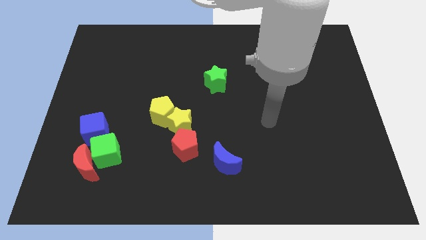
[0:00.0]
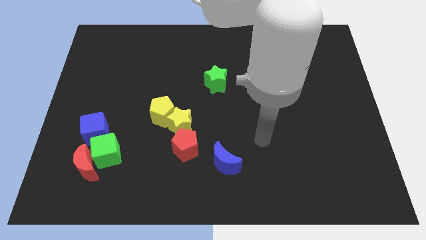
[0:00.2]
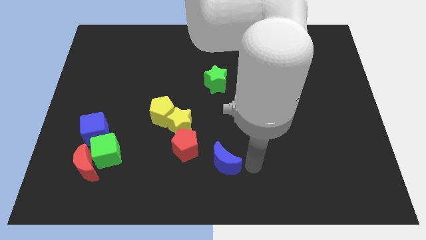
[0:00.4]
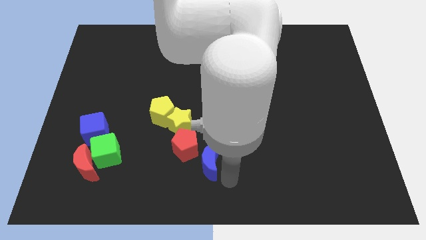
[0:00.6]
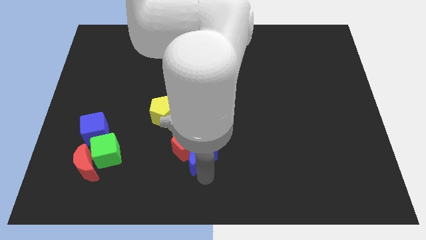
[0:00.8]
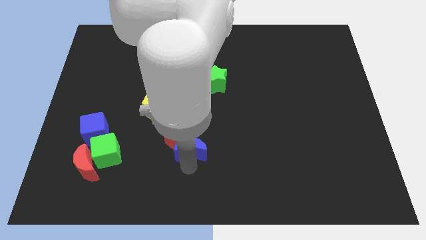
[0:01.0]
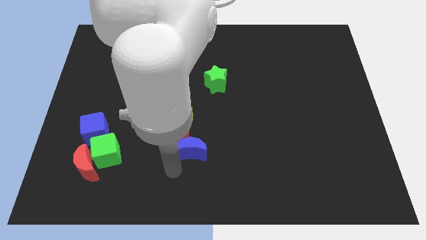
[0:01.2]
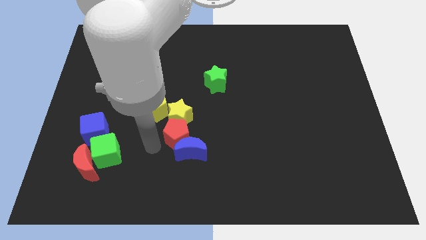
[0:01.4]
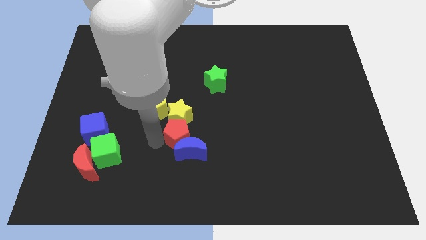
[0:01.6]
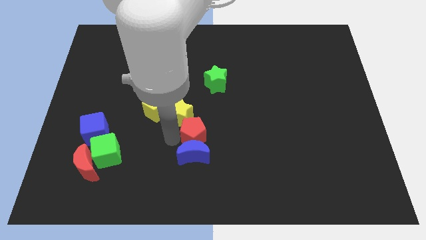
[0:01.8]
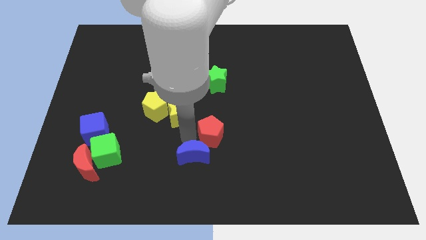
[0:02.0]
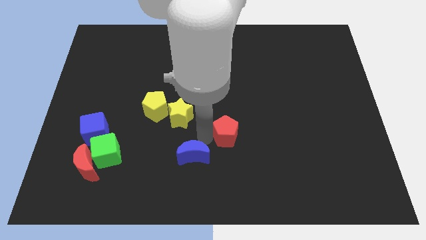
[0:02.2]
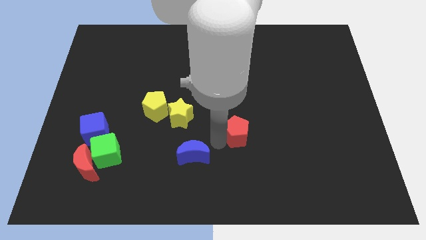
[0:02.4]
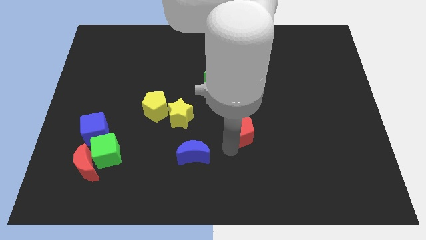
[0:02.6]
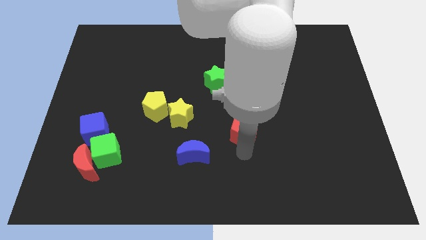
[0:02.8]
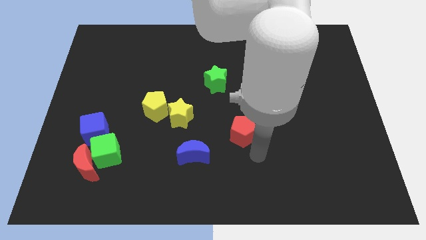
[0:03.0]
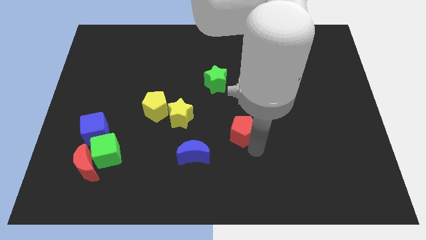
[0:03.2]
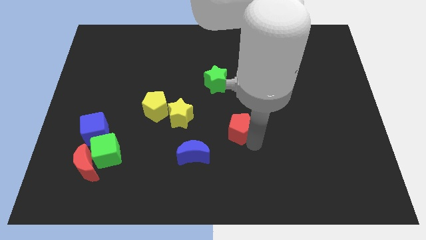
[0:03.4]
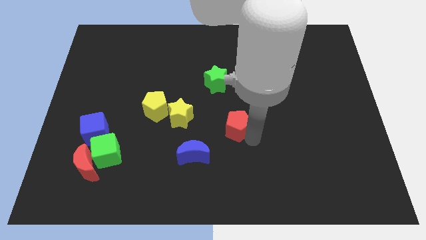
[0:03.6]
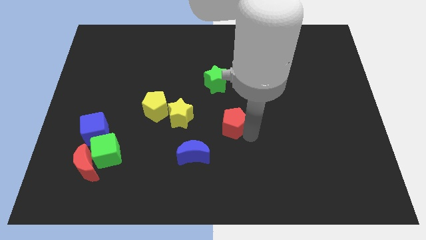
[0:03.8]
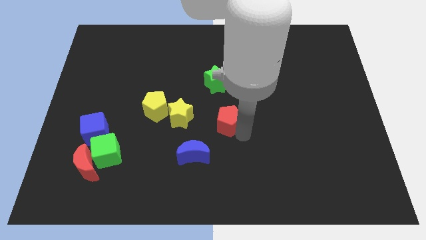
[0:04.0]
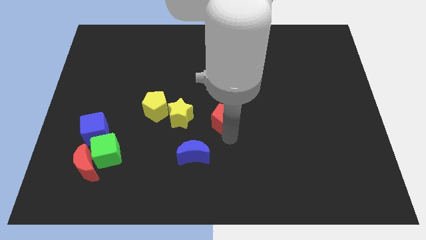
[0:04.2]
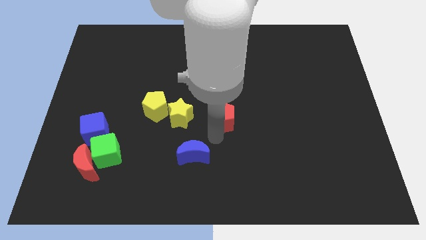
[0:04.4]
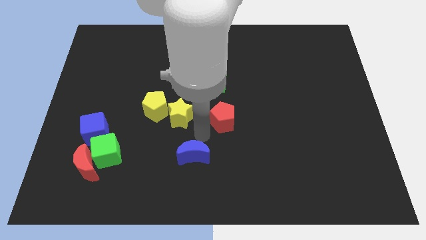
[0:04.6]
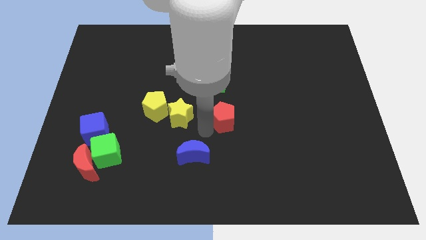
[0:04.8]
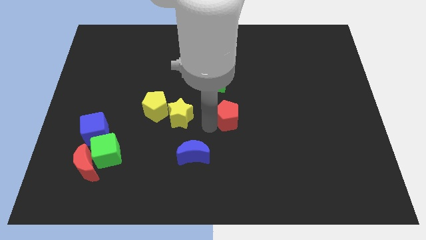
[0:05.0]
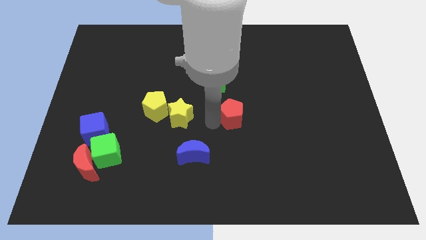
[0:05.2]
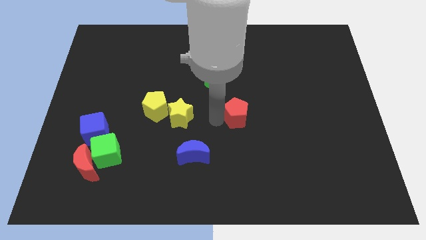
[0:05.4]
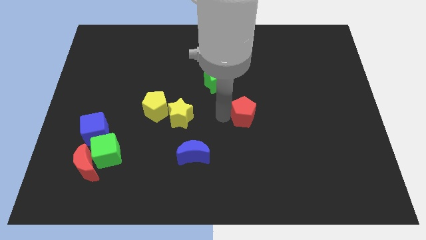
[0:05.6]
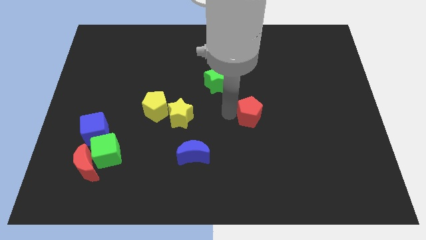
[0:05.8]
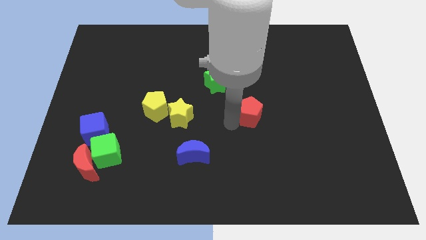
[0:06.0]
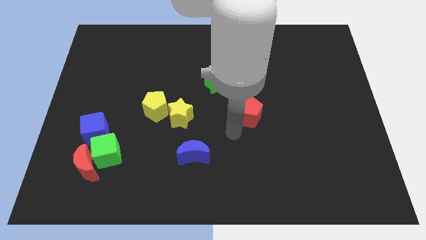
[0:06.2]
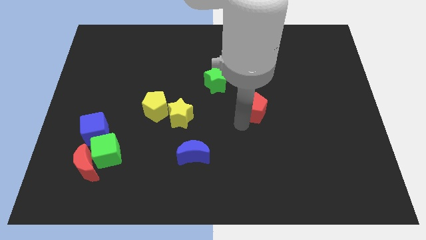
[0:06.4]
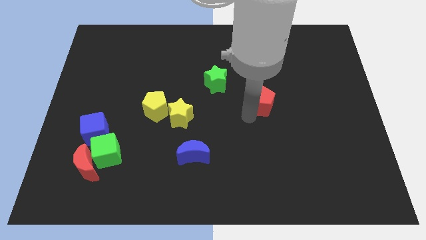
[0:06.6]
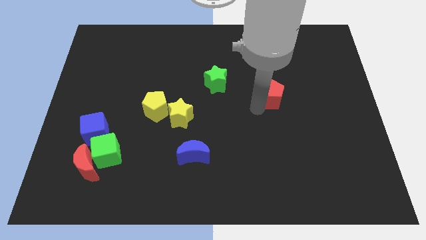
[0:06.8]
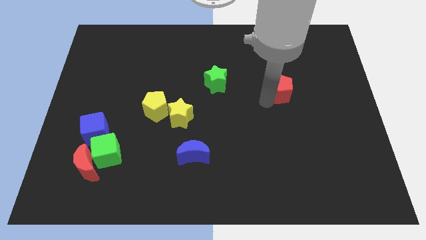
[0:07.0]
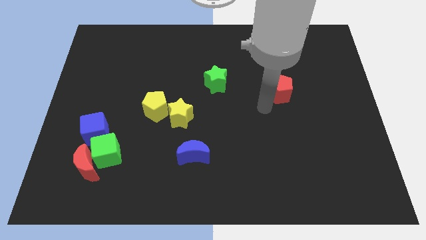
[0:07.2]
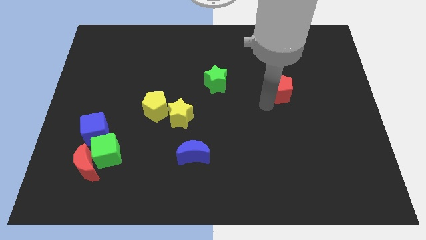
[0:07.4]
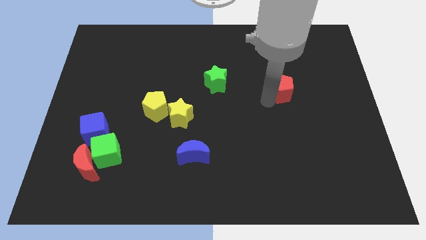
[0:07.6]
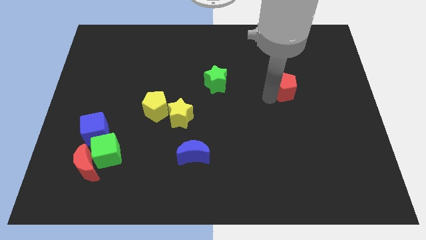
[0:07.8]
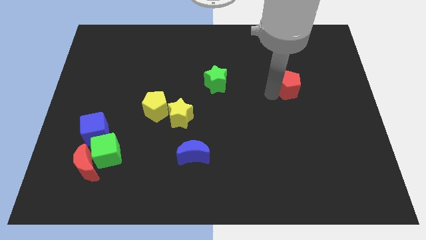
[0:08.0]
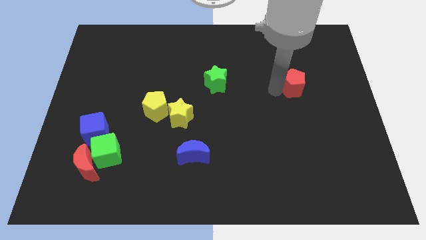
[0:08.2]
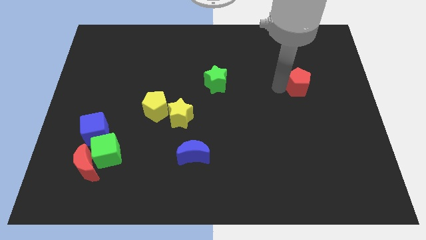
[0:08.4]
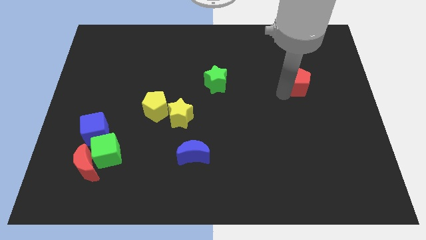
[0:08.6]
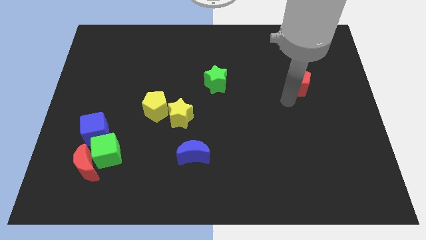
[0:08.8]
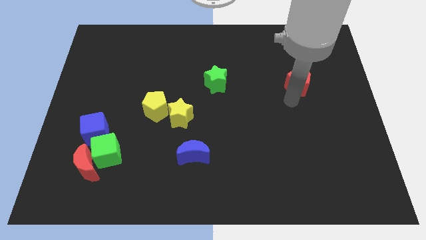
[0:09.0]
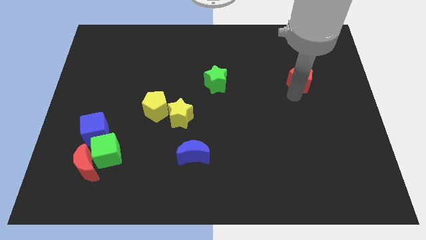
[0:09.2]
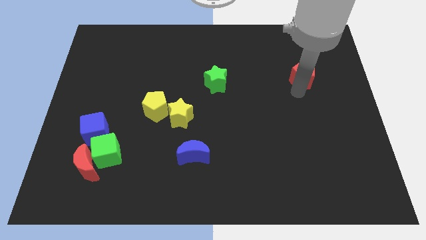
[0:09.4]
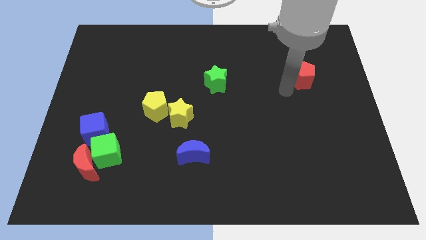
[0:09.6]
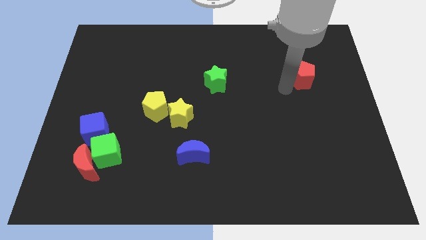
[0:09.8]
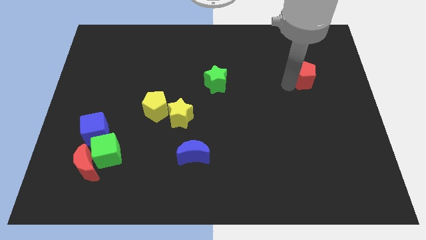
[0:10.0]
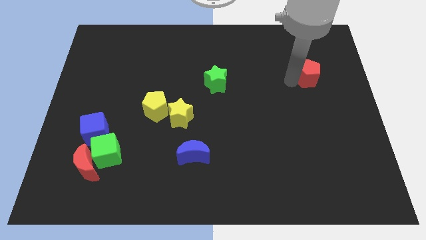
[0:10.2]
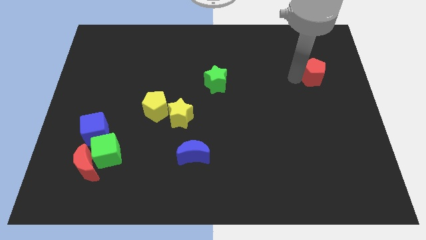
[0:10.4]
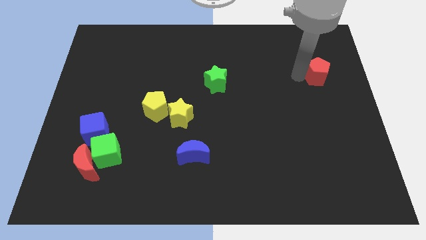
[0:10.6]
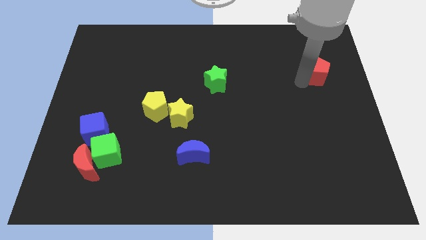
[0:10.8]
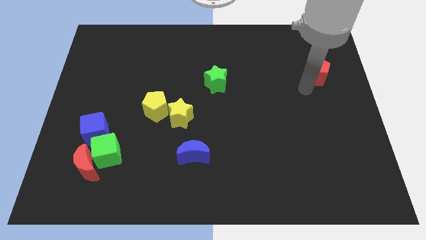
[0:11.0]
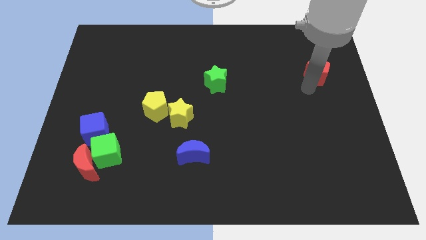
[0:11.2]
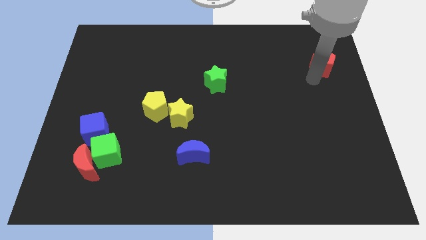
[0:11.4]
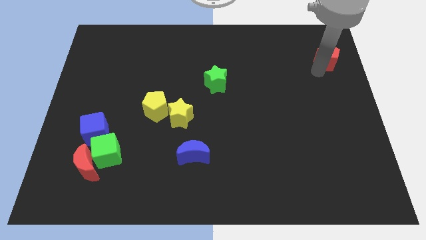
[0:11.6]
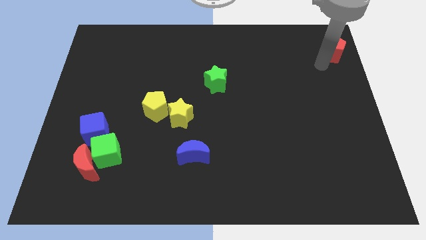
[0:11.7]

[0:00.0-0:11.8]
put the red pentagon to the top right of the board

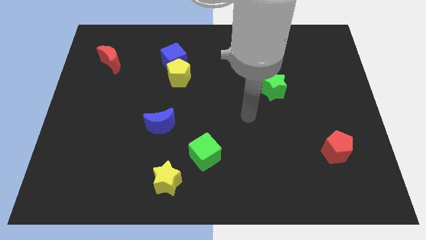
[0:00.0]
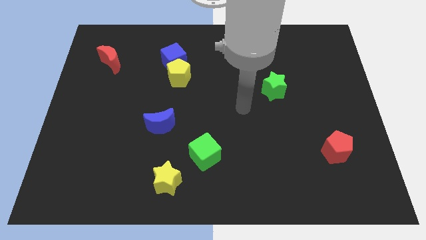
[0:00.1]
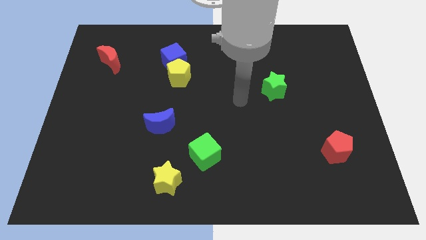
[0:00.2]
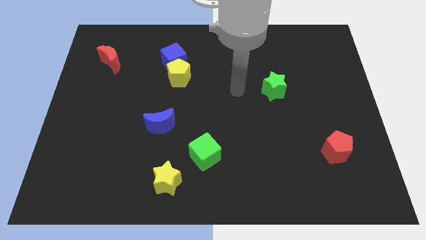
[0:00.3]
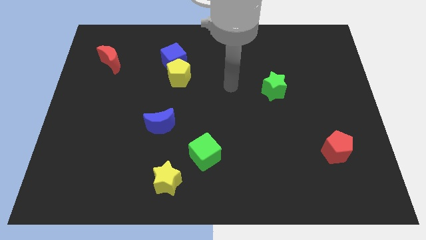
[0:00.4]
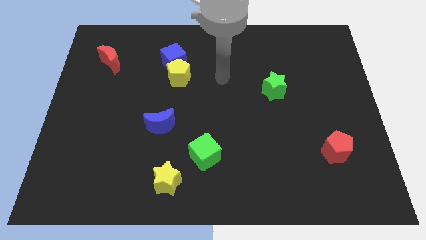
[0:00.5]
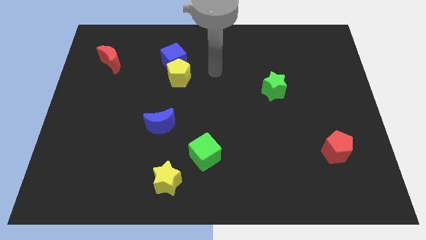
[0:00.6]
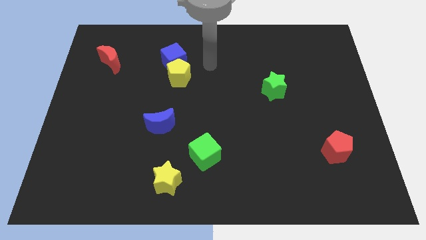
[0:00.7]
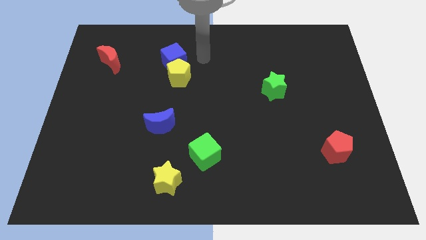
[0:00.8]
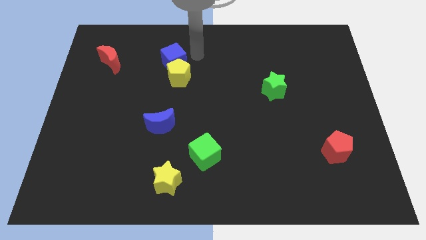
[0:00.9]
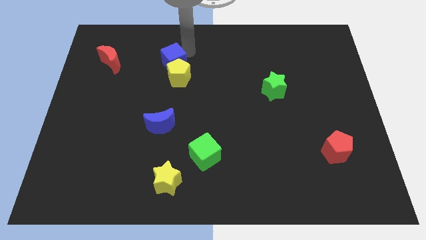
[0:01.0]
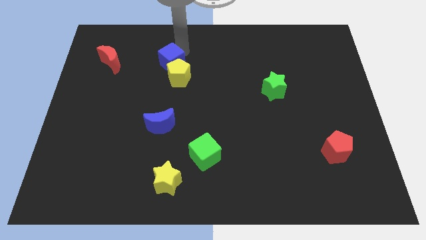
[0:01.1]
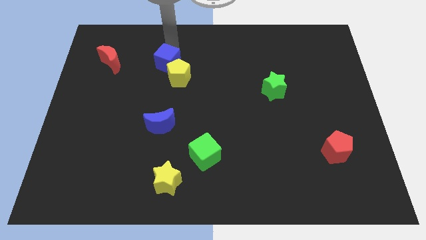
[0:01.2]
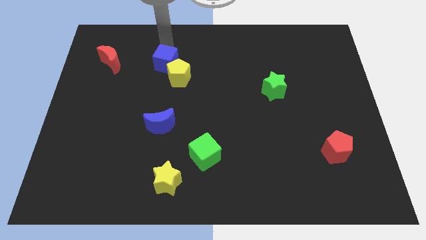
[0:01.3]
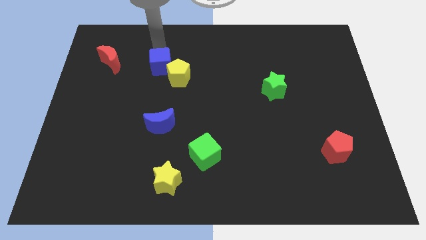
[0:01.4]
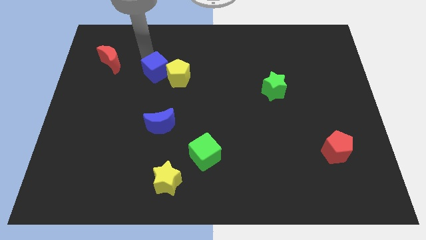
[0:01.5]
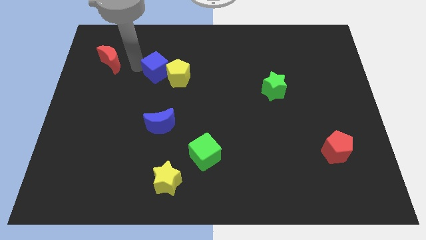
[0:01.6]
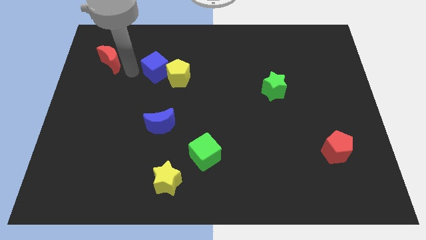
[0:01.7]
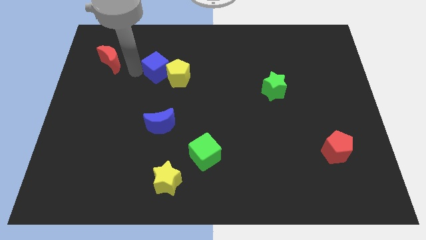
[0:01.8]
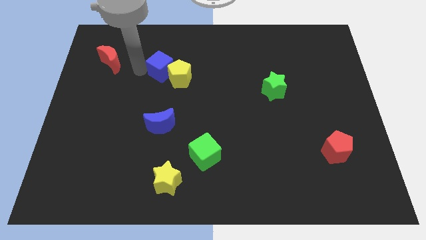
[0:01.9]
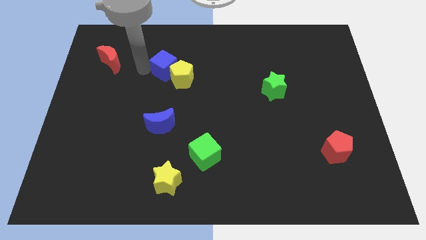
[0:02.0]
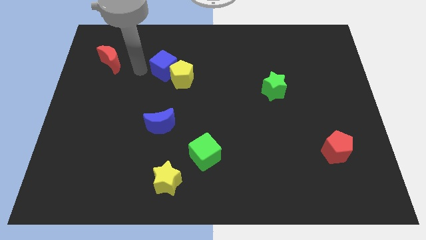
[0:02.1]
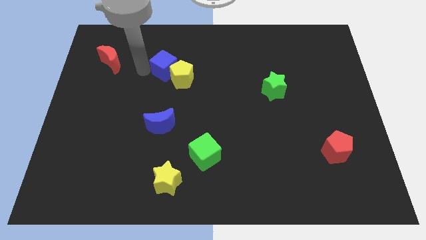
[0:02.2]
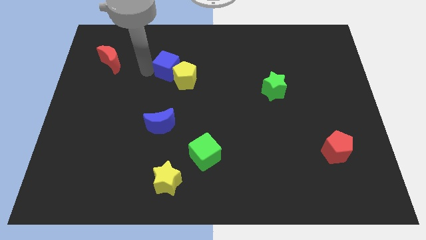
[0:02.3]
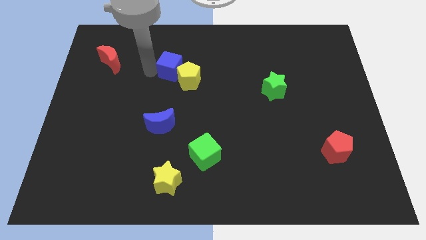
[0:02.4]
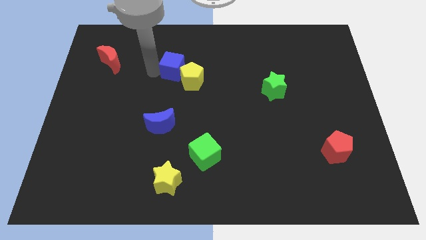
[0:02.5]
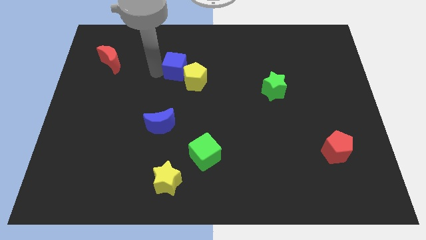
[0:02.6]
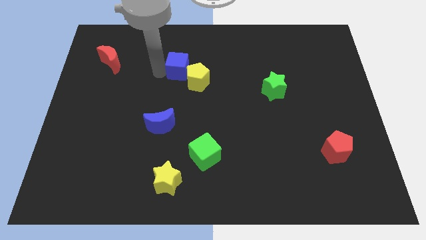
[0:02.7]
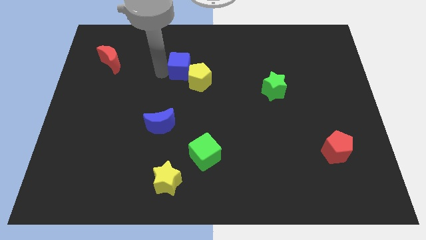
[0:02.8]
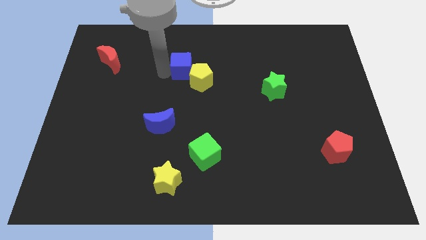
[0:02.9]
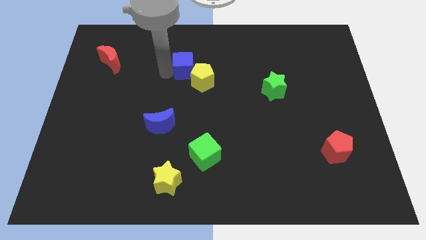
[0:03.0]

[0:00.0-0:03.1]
push the blue cube to the middle
